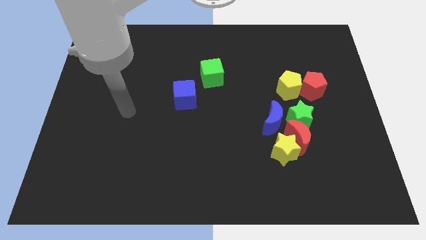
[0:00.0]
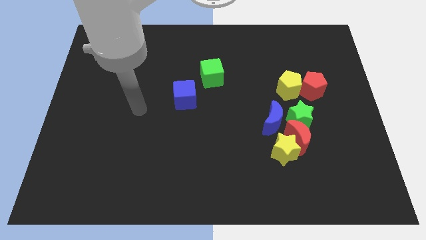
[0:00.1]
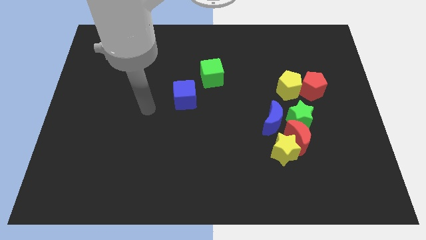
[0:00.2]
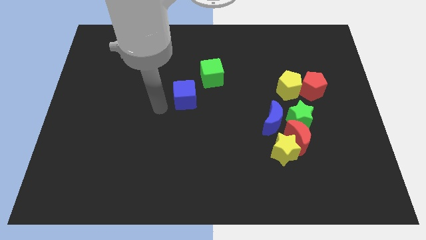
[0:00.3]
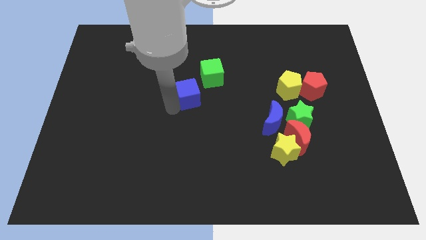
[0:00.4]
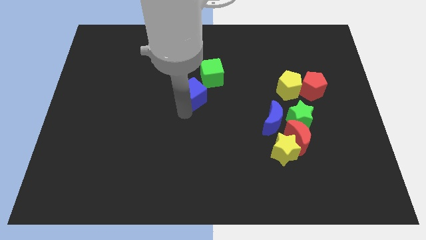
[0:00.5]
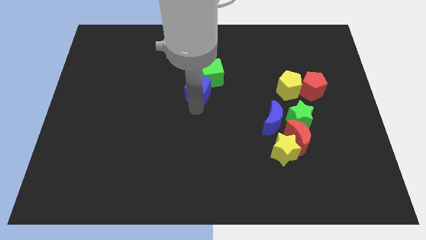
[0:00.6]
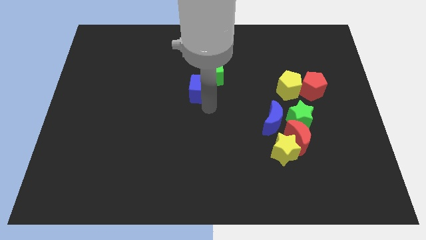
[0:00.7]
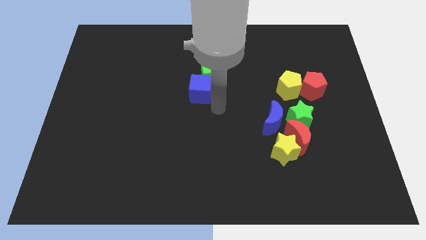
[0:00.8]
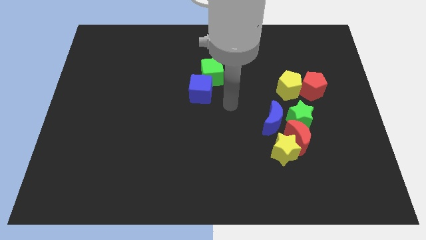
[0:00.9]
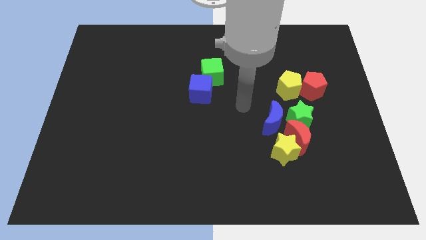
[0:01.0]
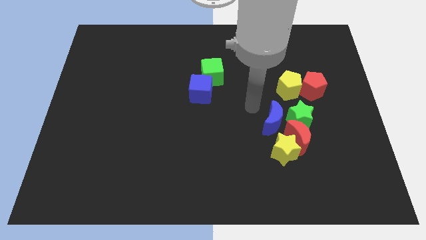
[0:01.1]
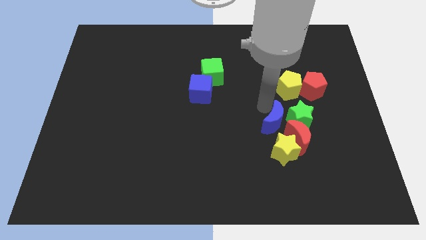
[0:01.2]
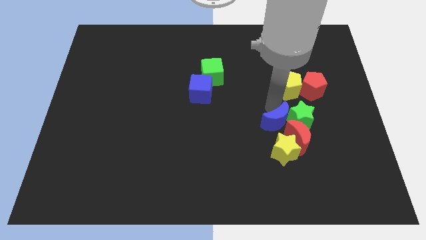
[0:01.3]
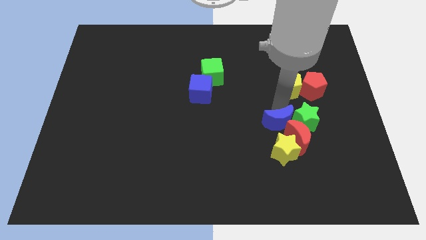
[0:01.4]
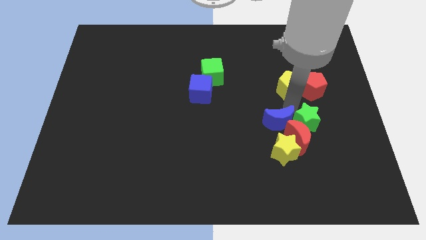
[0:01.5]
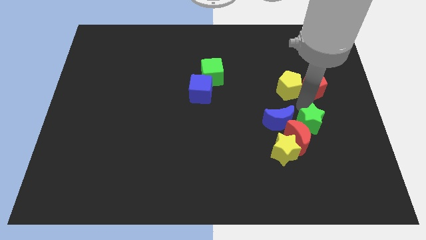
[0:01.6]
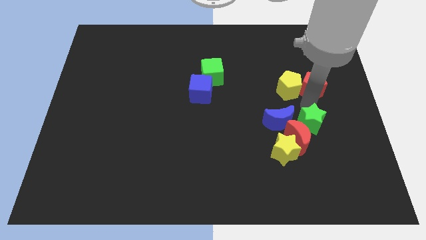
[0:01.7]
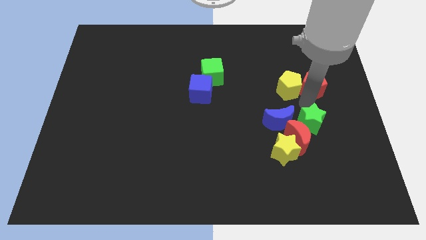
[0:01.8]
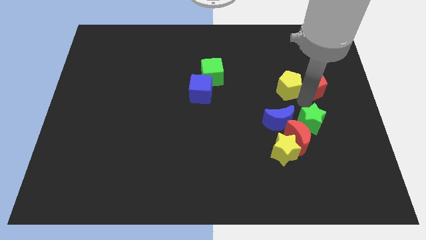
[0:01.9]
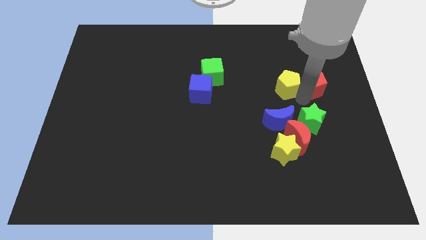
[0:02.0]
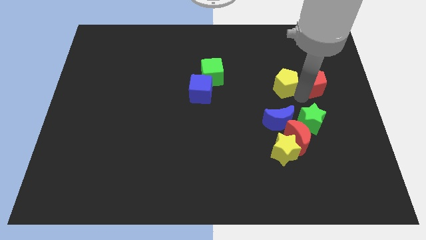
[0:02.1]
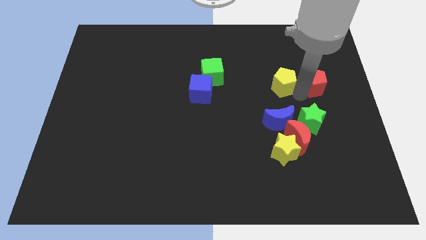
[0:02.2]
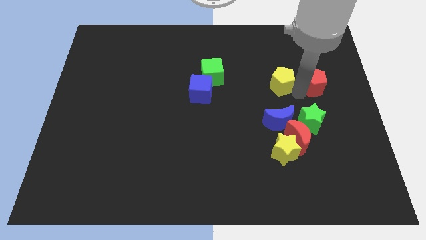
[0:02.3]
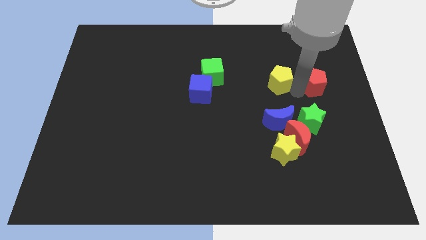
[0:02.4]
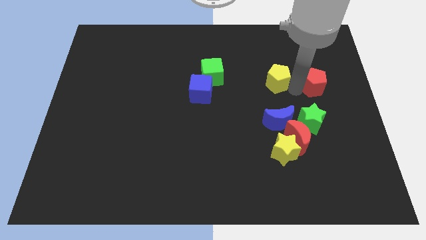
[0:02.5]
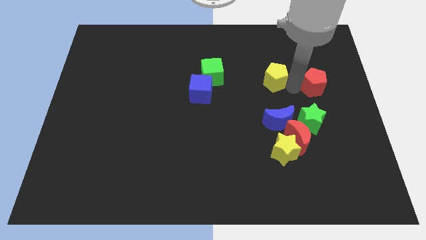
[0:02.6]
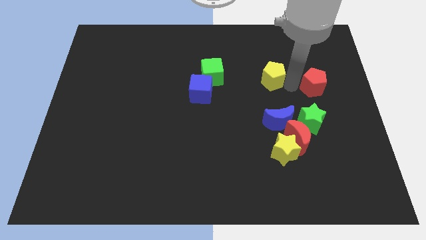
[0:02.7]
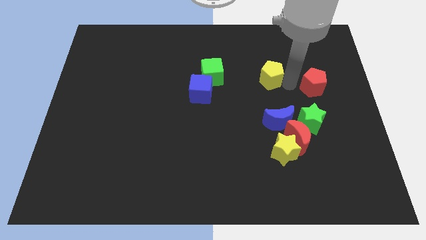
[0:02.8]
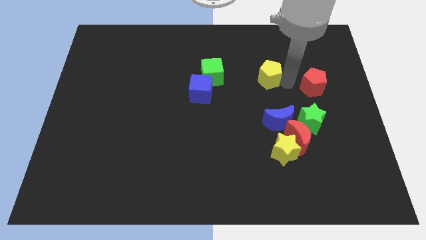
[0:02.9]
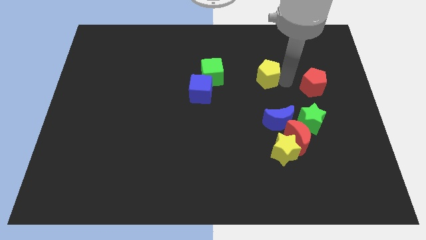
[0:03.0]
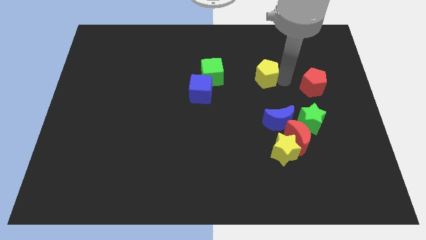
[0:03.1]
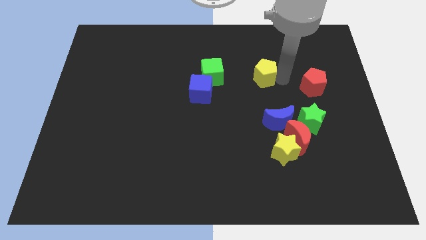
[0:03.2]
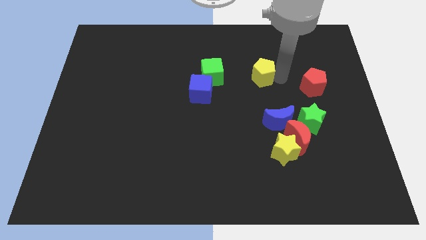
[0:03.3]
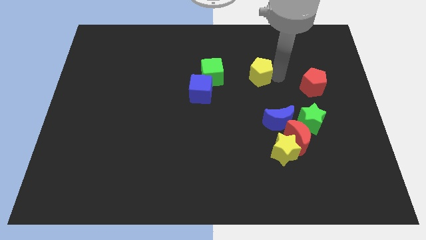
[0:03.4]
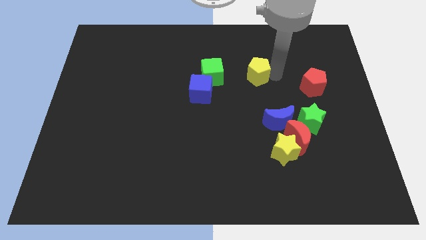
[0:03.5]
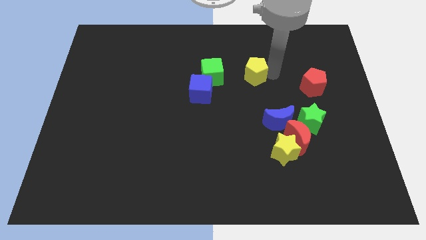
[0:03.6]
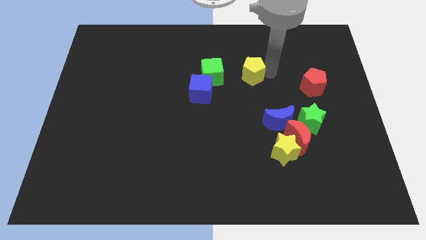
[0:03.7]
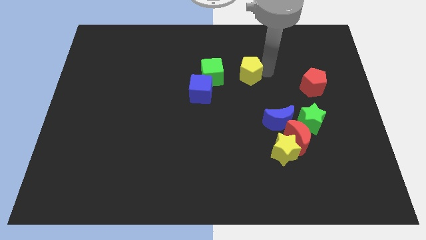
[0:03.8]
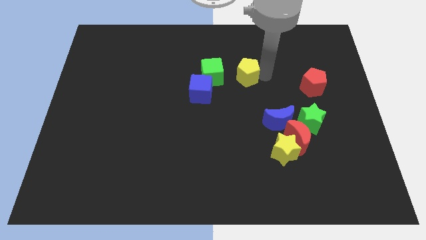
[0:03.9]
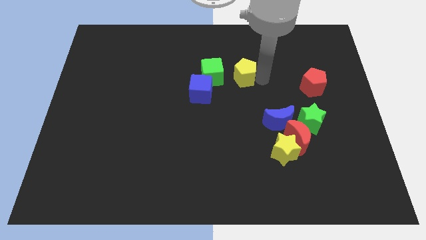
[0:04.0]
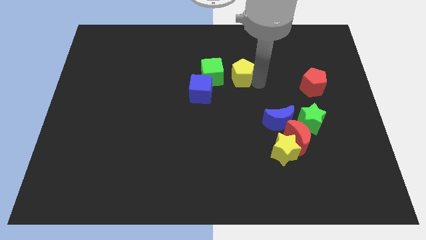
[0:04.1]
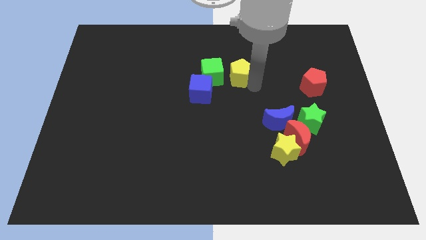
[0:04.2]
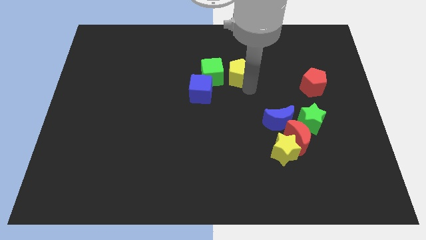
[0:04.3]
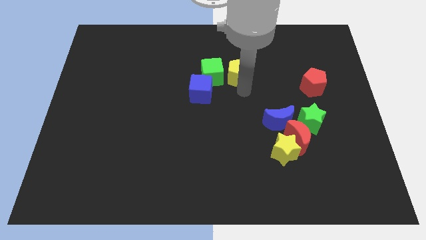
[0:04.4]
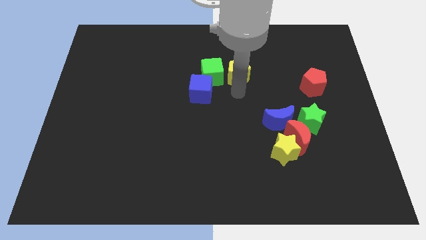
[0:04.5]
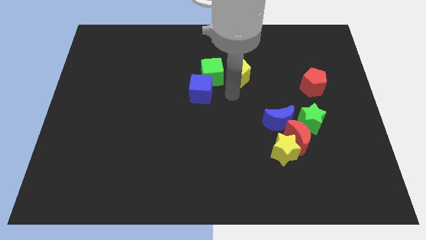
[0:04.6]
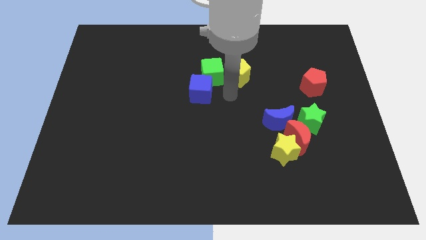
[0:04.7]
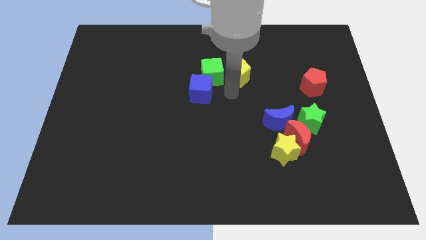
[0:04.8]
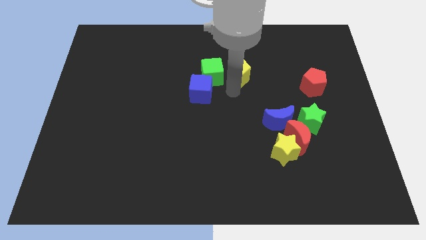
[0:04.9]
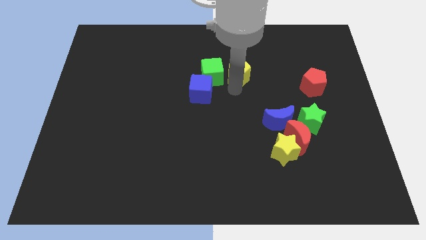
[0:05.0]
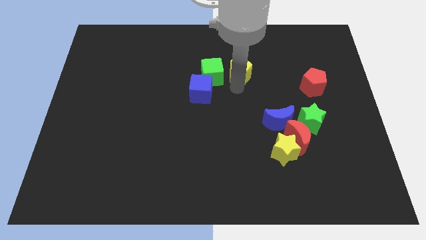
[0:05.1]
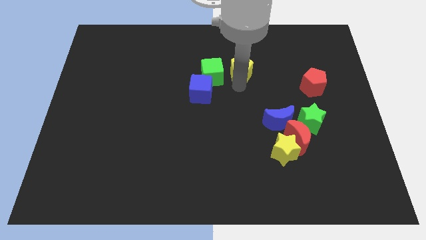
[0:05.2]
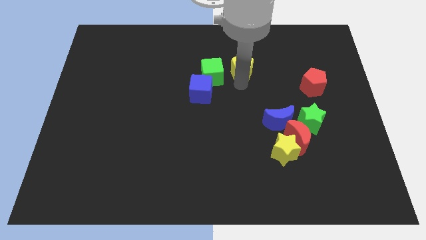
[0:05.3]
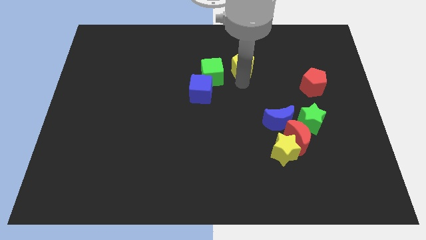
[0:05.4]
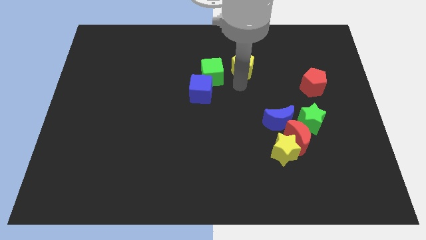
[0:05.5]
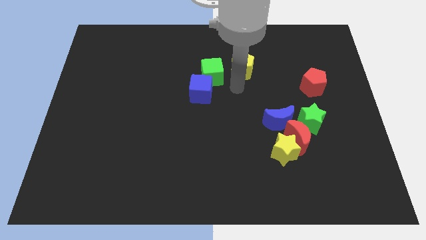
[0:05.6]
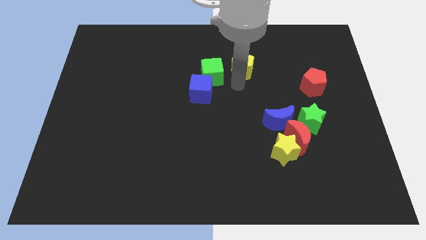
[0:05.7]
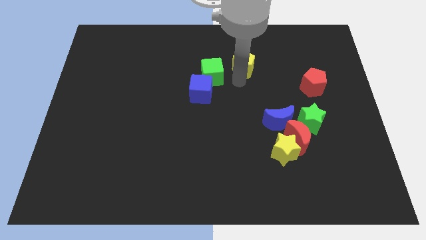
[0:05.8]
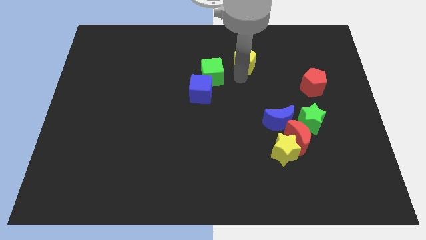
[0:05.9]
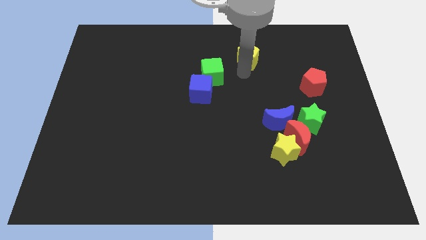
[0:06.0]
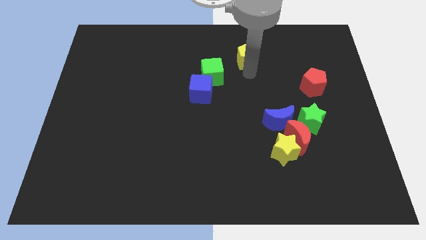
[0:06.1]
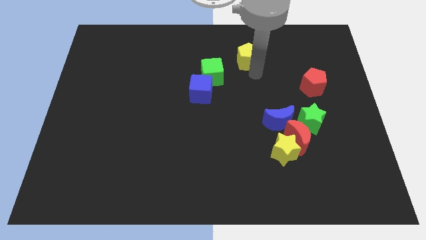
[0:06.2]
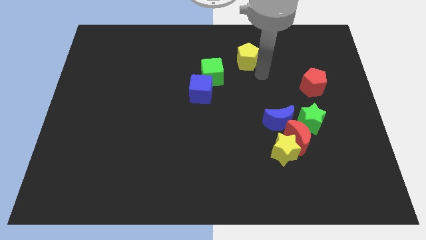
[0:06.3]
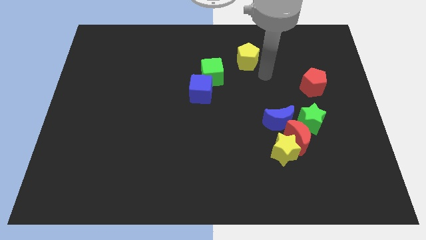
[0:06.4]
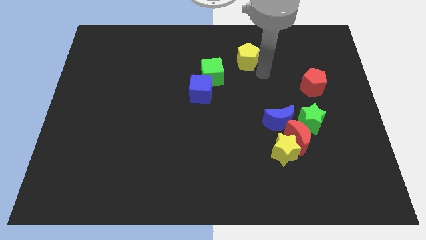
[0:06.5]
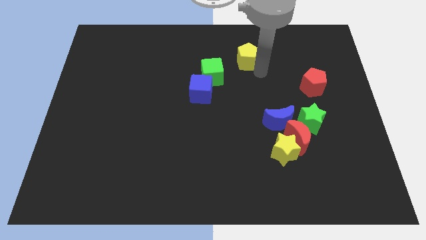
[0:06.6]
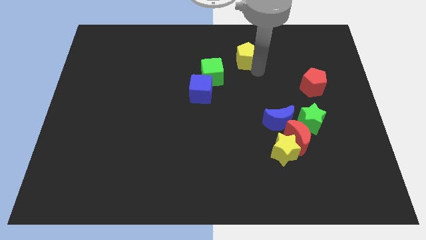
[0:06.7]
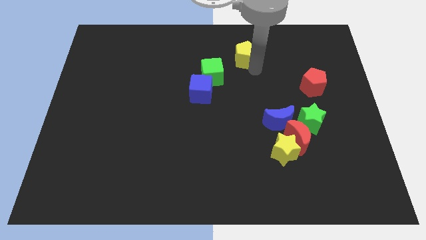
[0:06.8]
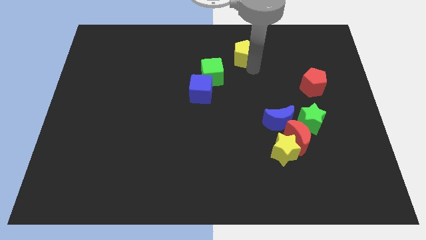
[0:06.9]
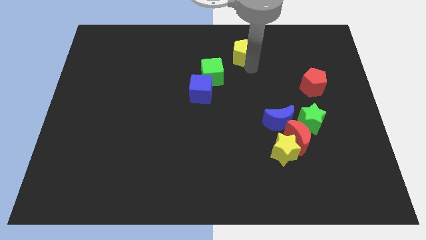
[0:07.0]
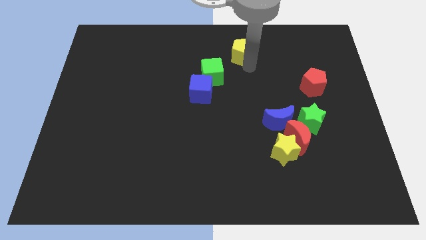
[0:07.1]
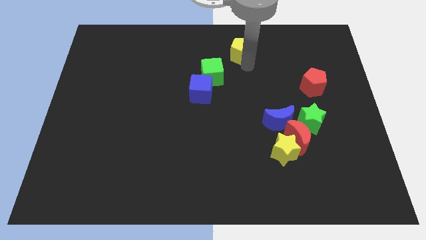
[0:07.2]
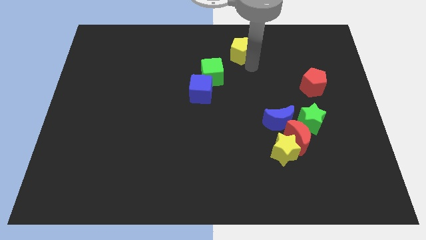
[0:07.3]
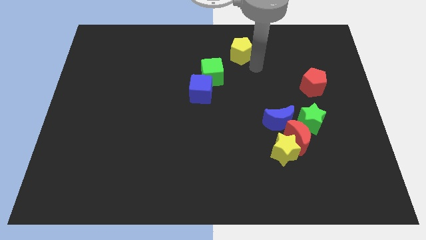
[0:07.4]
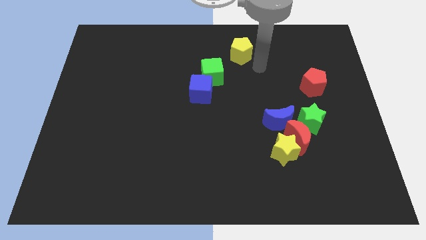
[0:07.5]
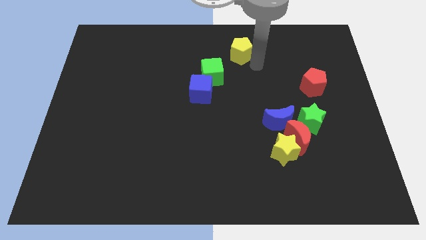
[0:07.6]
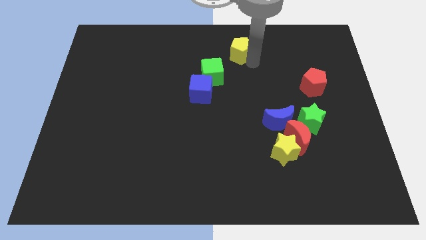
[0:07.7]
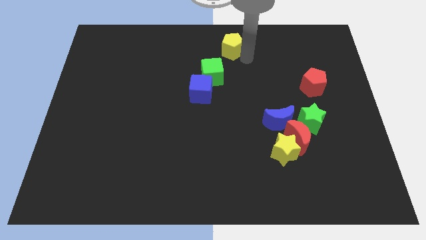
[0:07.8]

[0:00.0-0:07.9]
put the yellow pentagon to the top side
